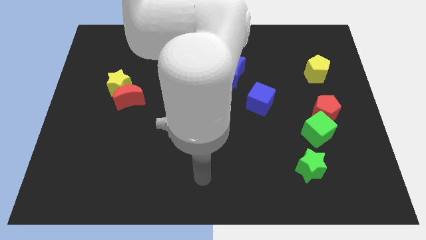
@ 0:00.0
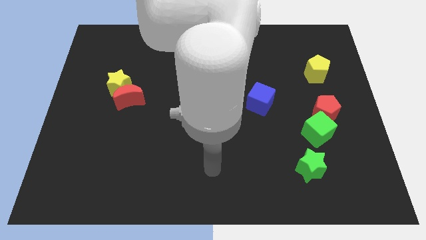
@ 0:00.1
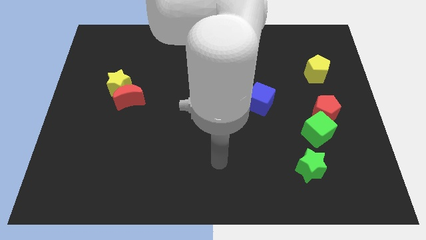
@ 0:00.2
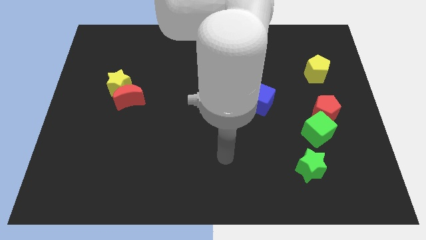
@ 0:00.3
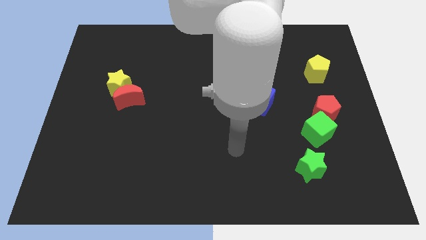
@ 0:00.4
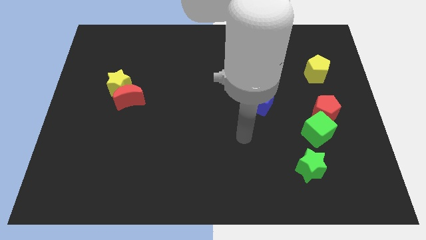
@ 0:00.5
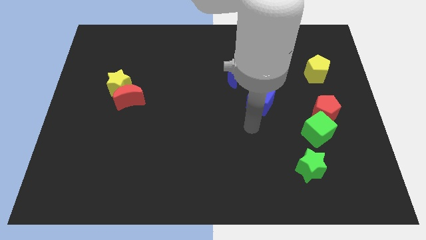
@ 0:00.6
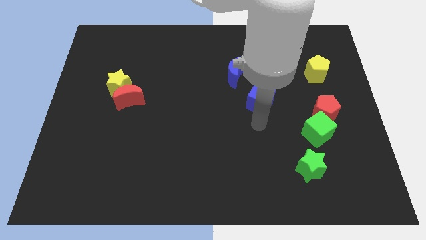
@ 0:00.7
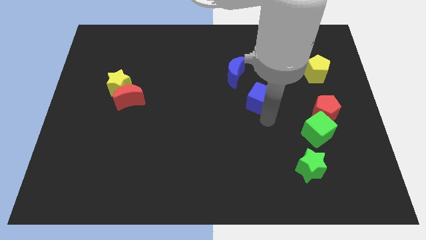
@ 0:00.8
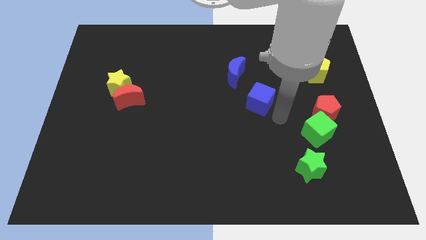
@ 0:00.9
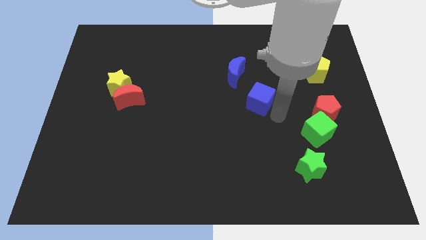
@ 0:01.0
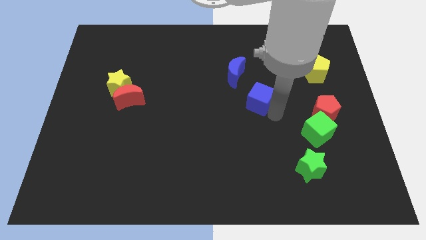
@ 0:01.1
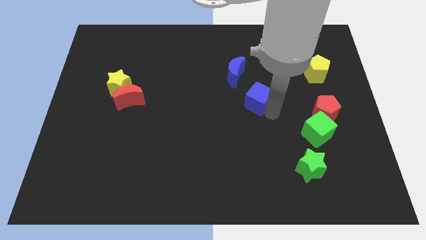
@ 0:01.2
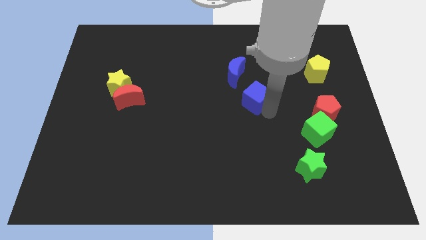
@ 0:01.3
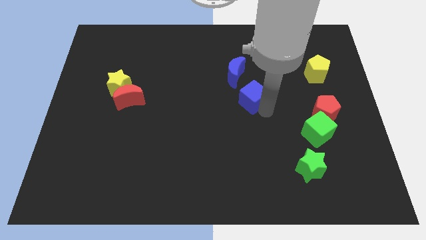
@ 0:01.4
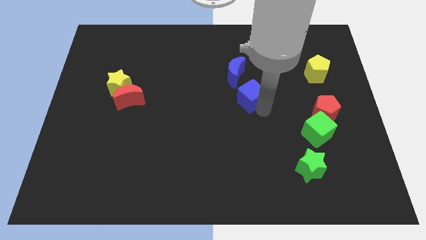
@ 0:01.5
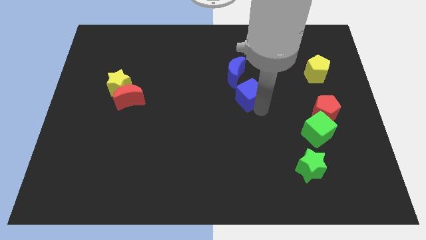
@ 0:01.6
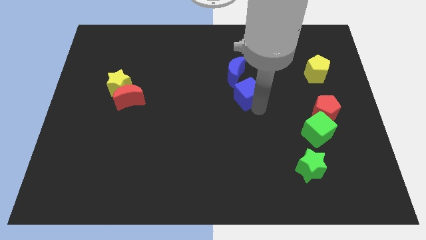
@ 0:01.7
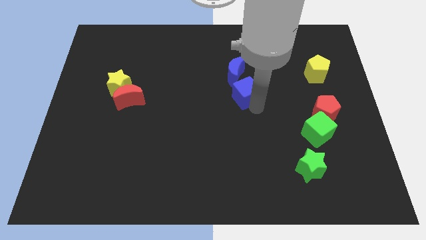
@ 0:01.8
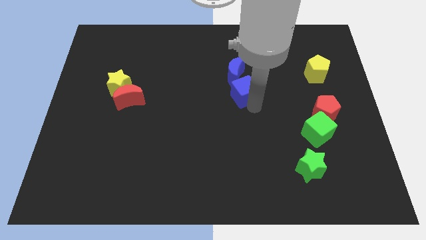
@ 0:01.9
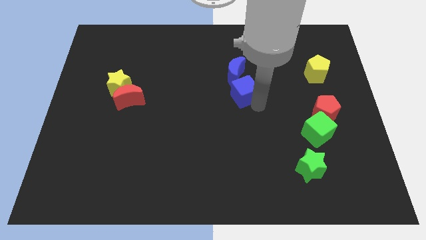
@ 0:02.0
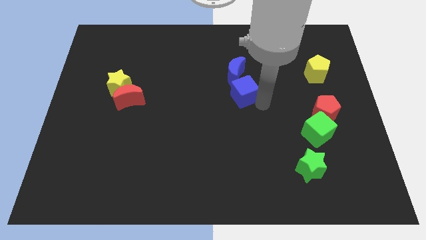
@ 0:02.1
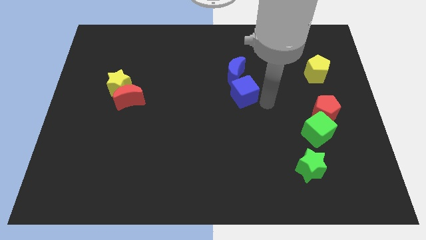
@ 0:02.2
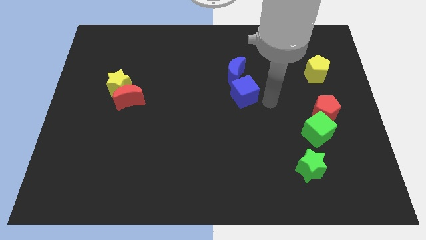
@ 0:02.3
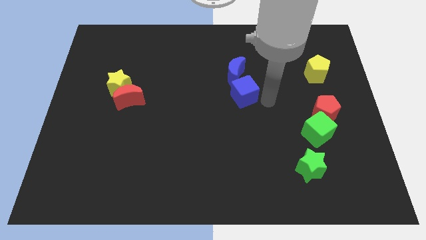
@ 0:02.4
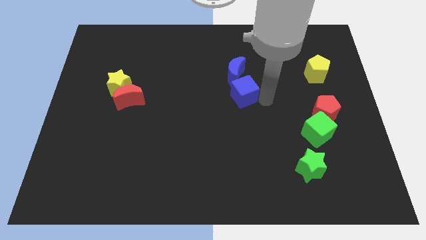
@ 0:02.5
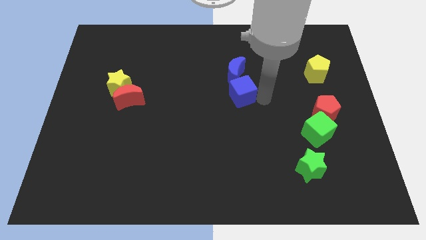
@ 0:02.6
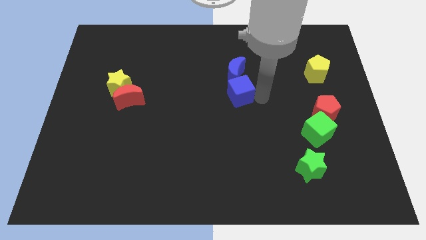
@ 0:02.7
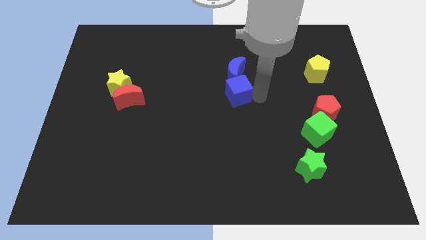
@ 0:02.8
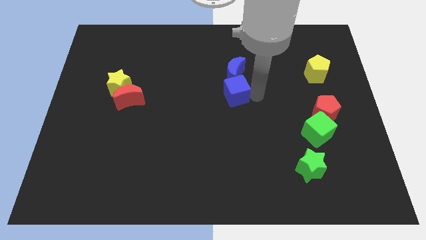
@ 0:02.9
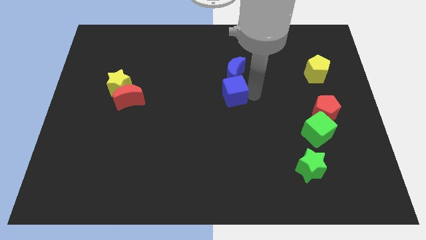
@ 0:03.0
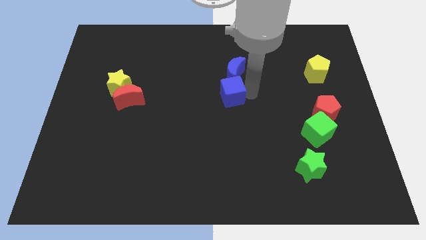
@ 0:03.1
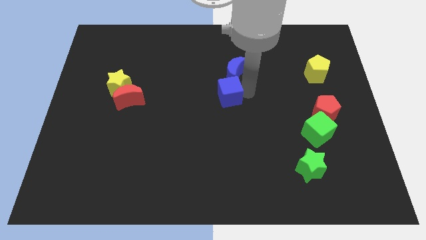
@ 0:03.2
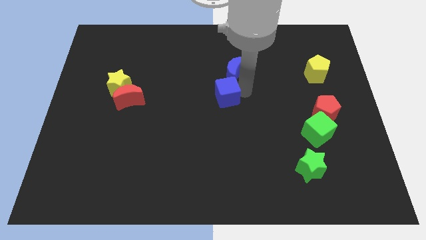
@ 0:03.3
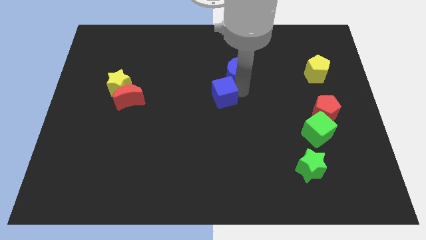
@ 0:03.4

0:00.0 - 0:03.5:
slightly push the blue cube up and to the left diagonally

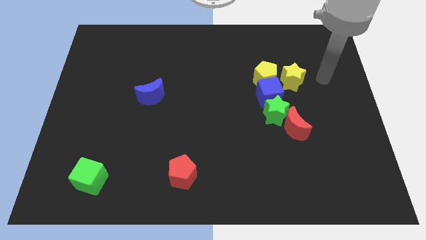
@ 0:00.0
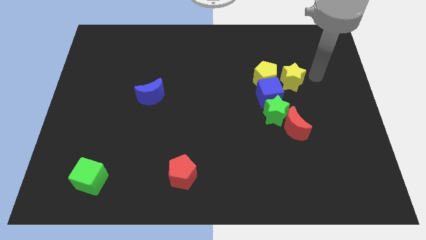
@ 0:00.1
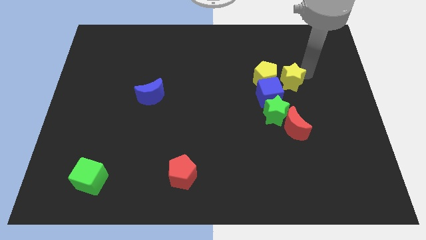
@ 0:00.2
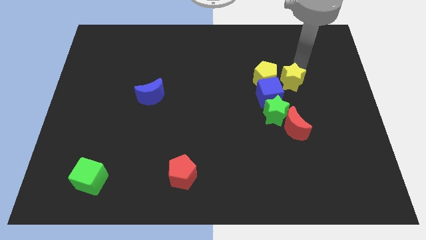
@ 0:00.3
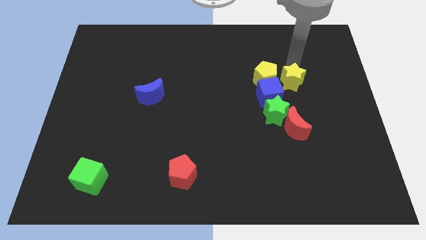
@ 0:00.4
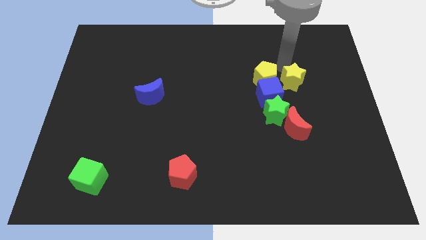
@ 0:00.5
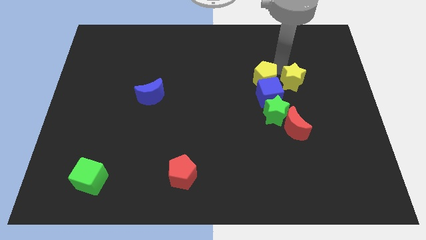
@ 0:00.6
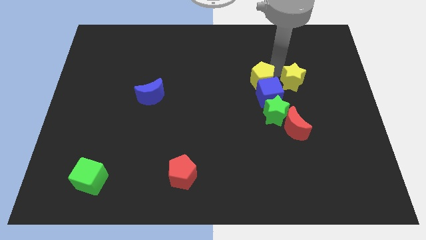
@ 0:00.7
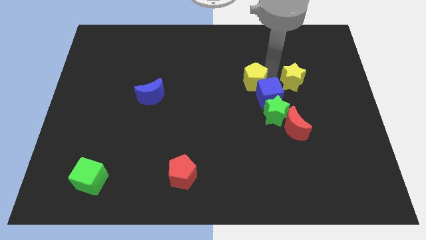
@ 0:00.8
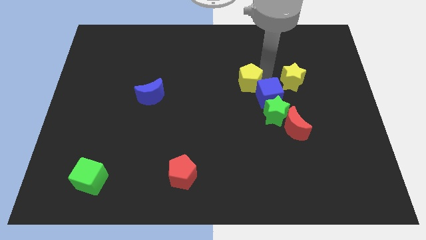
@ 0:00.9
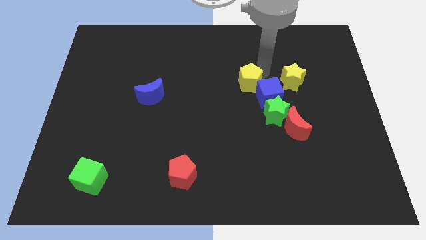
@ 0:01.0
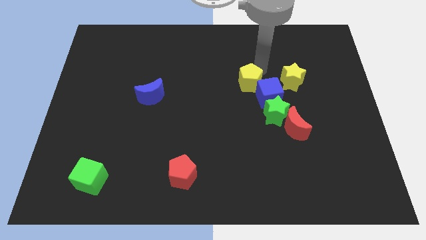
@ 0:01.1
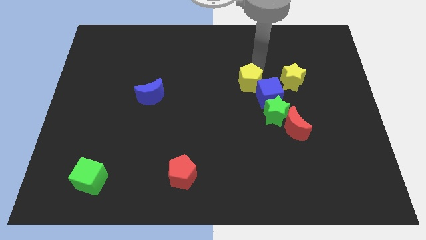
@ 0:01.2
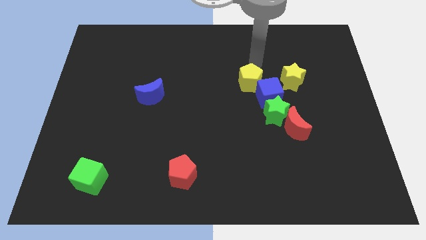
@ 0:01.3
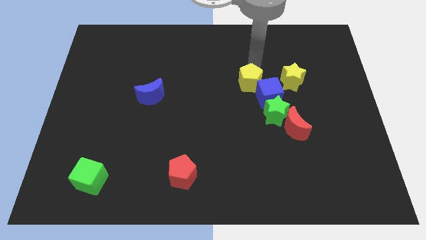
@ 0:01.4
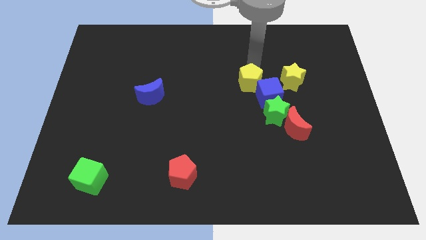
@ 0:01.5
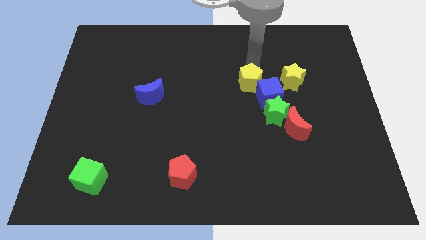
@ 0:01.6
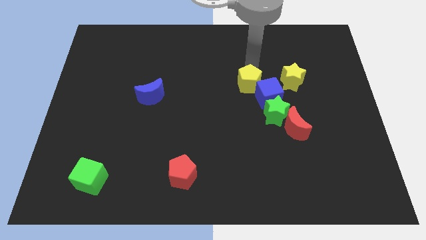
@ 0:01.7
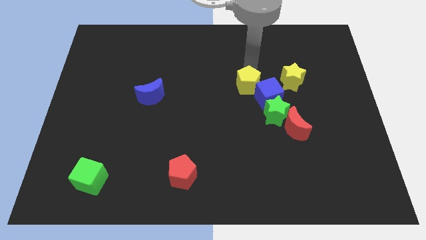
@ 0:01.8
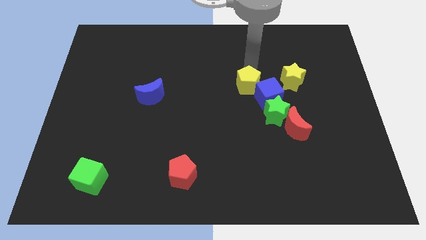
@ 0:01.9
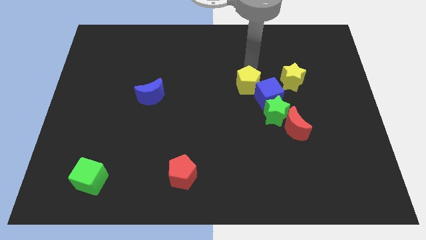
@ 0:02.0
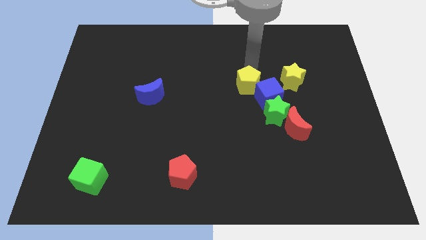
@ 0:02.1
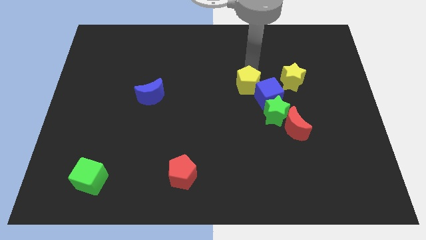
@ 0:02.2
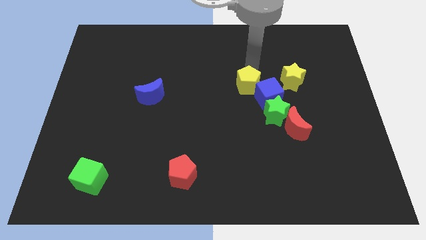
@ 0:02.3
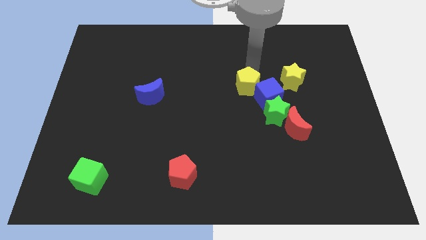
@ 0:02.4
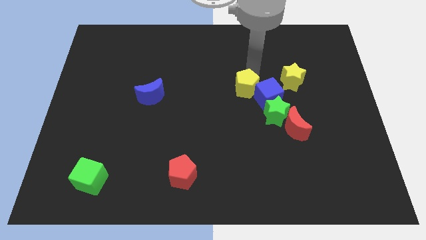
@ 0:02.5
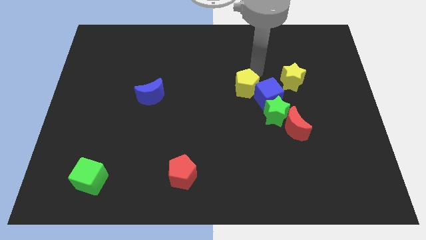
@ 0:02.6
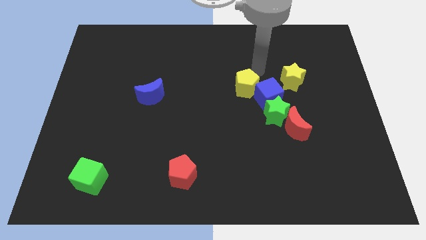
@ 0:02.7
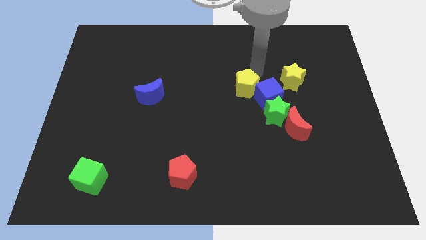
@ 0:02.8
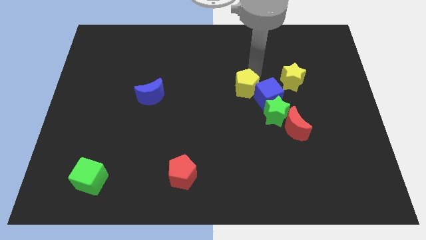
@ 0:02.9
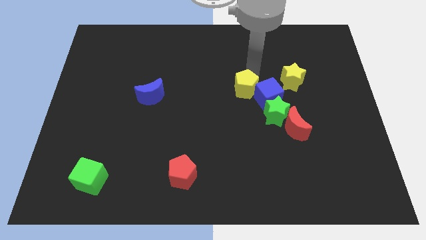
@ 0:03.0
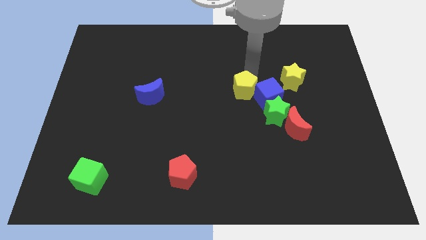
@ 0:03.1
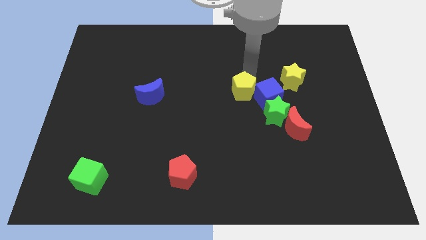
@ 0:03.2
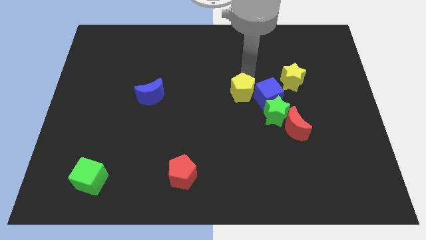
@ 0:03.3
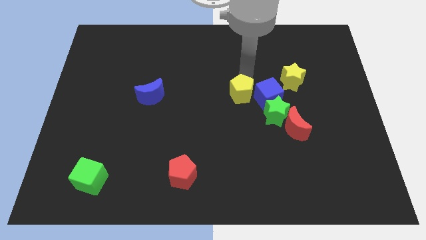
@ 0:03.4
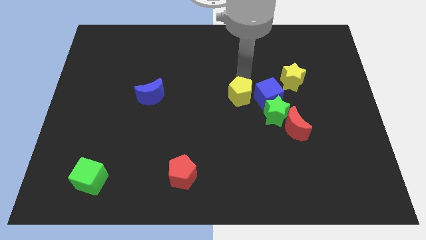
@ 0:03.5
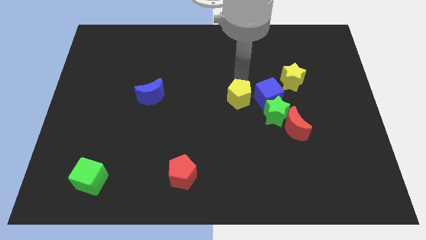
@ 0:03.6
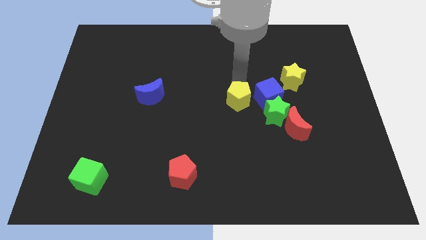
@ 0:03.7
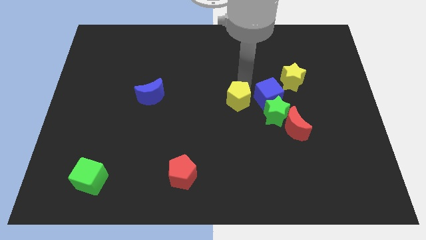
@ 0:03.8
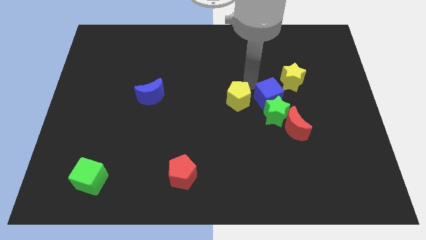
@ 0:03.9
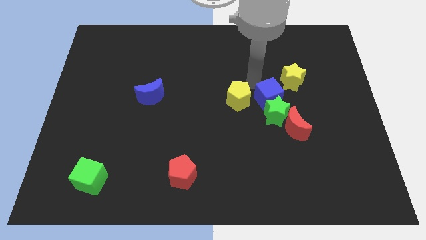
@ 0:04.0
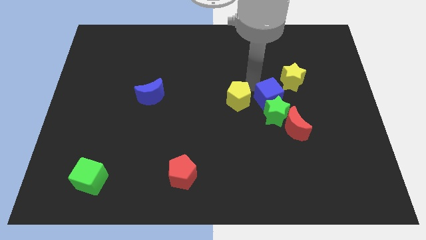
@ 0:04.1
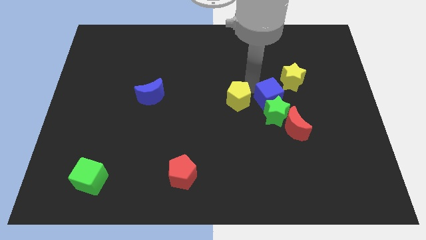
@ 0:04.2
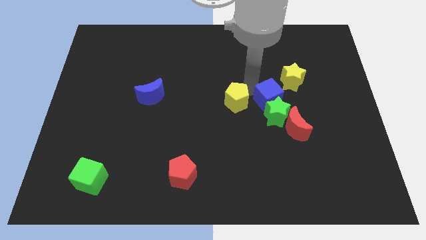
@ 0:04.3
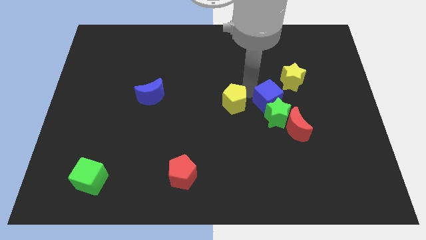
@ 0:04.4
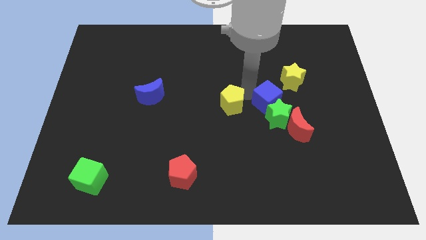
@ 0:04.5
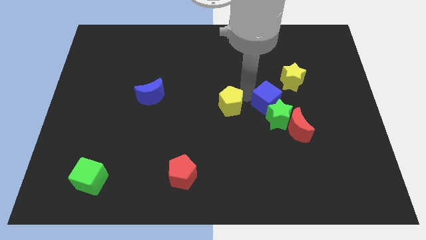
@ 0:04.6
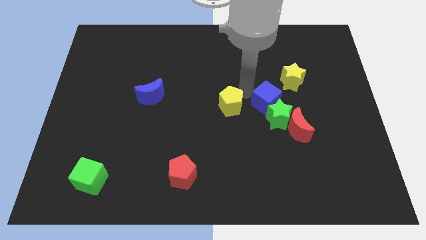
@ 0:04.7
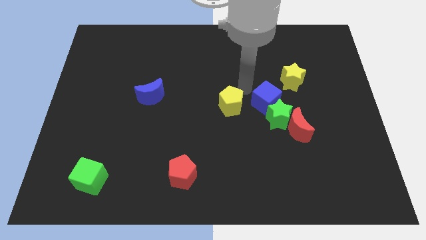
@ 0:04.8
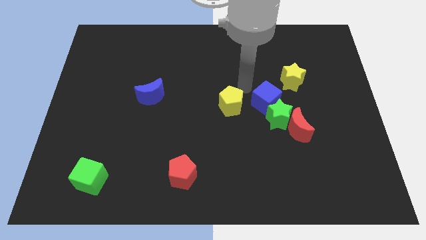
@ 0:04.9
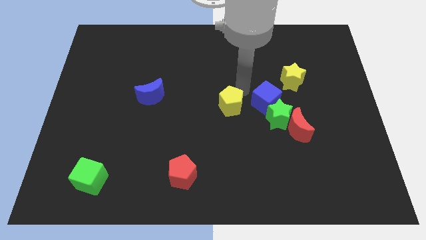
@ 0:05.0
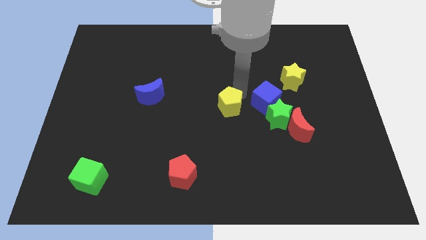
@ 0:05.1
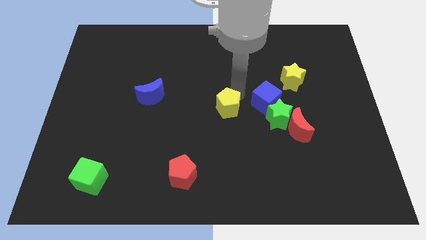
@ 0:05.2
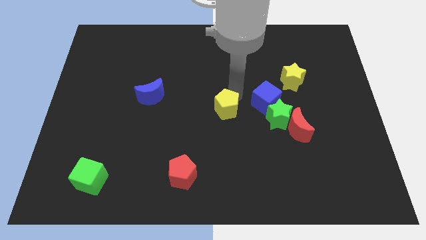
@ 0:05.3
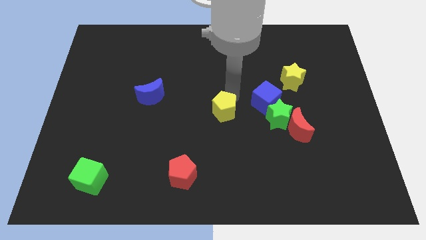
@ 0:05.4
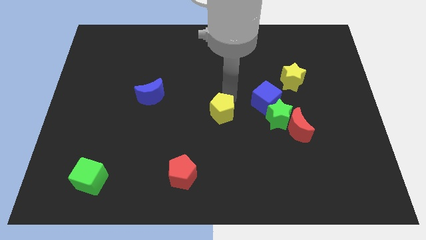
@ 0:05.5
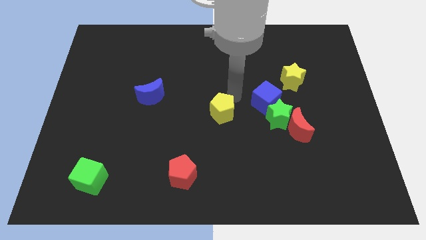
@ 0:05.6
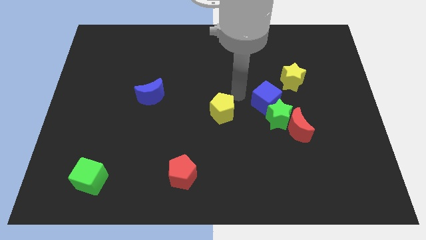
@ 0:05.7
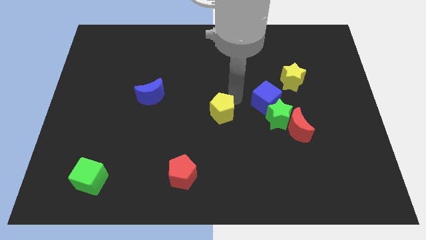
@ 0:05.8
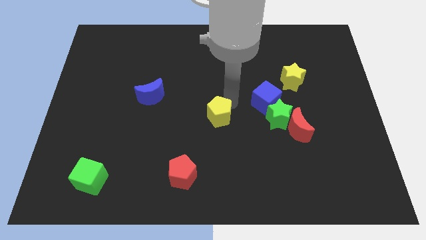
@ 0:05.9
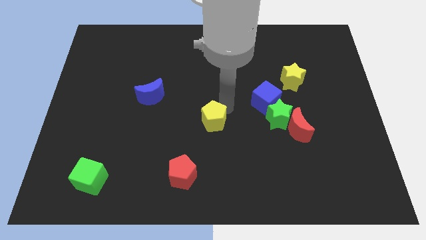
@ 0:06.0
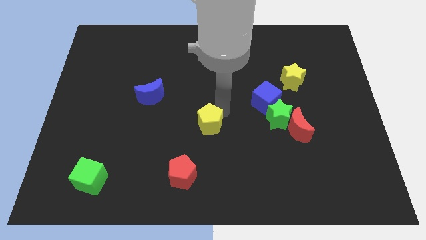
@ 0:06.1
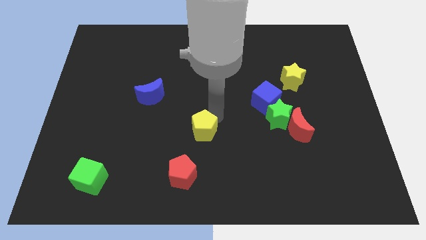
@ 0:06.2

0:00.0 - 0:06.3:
move the yellow pentagon downwards and then to the left
